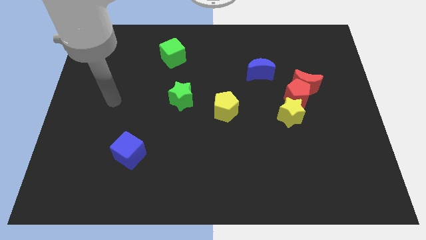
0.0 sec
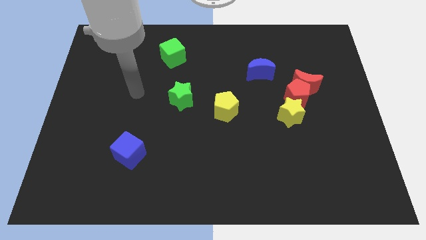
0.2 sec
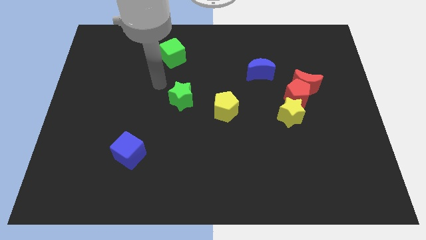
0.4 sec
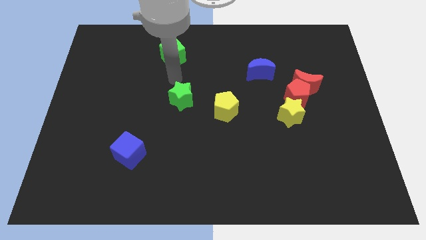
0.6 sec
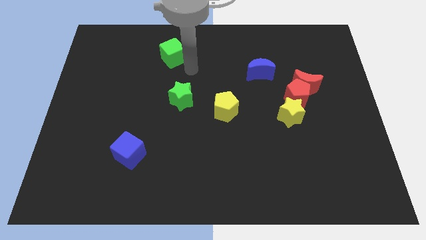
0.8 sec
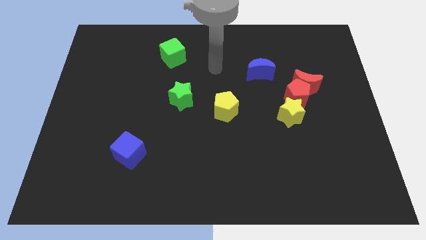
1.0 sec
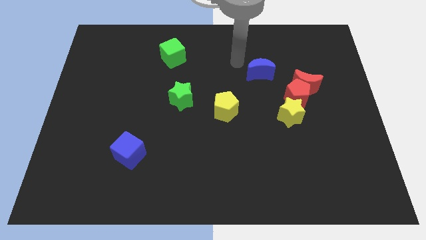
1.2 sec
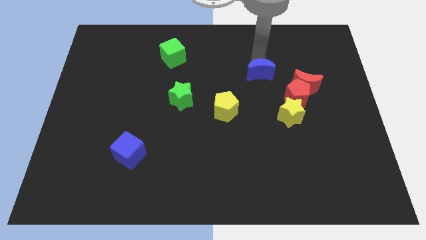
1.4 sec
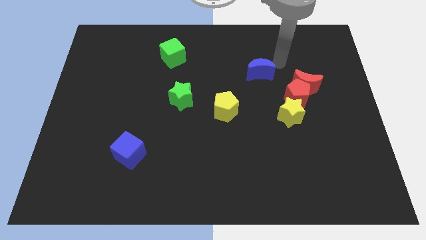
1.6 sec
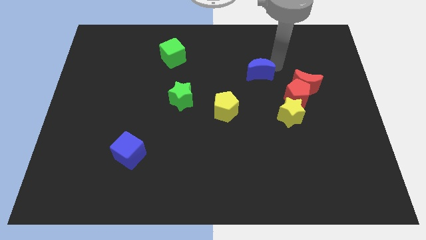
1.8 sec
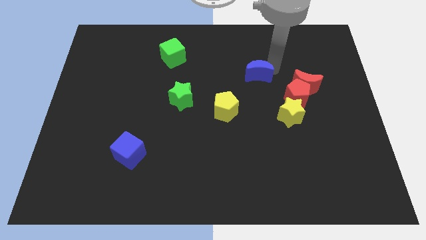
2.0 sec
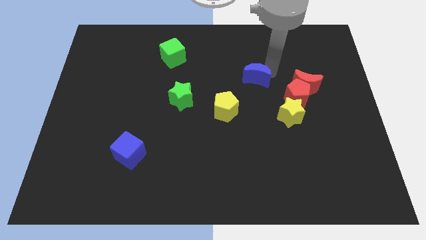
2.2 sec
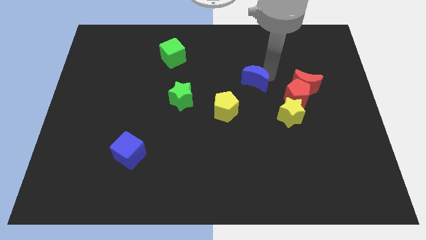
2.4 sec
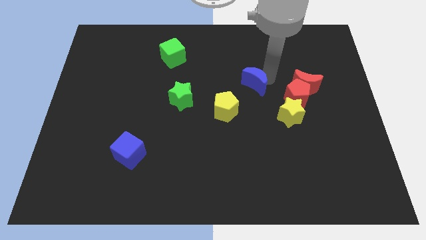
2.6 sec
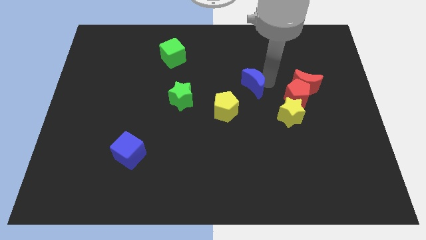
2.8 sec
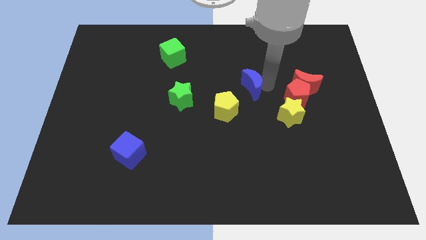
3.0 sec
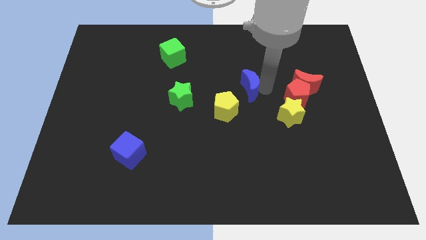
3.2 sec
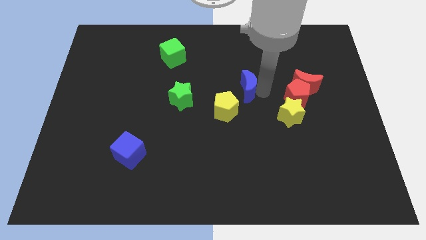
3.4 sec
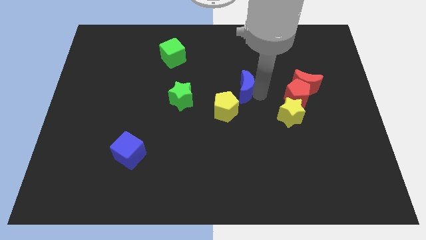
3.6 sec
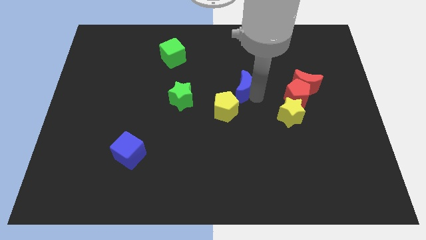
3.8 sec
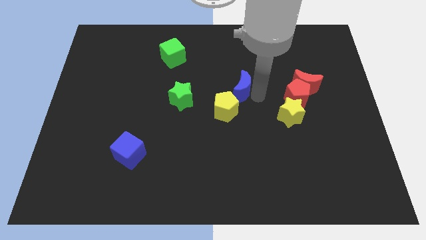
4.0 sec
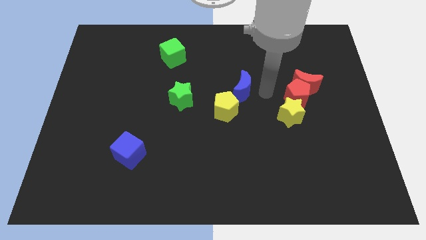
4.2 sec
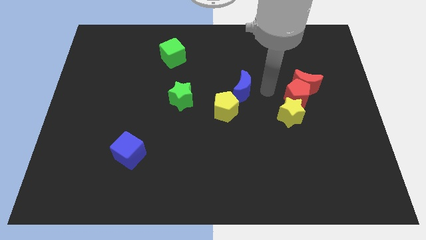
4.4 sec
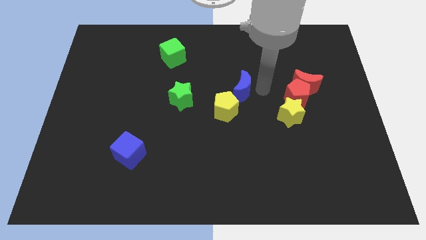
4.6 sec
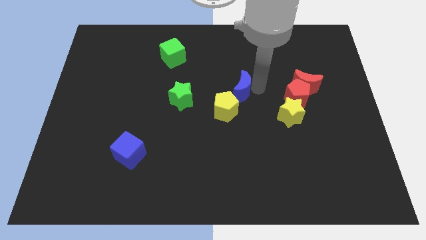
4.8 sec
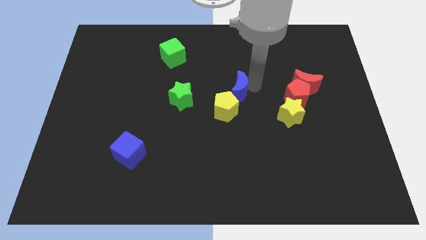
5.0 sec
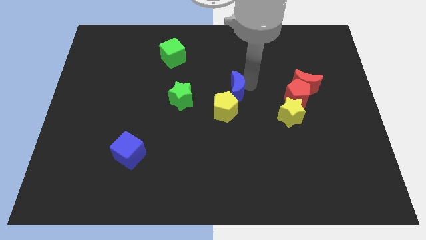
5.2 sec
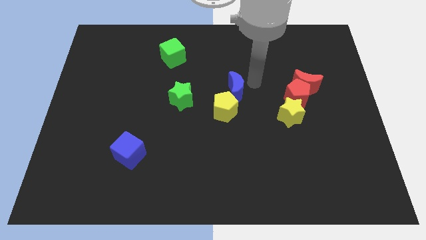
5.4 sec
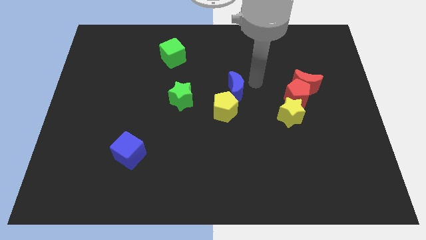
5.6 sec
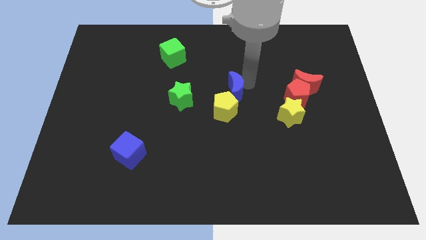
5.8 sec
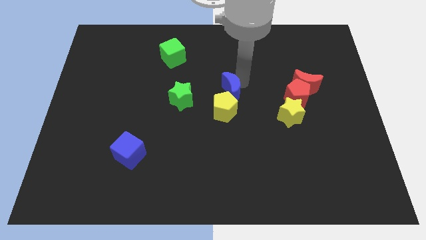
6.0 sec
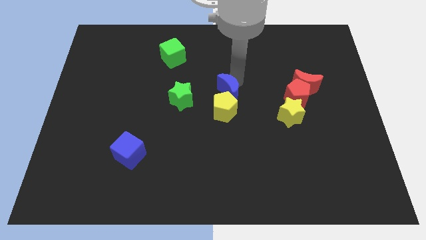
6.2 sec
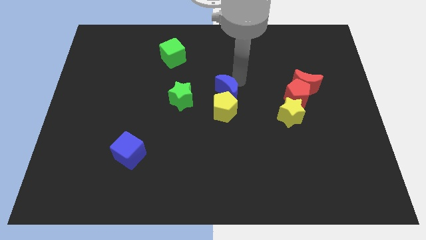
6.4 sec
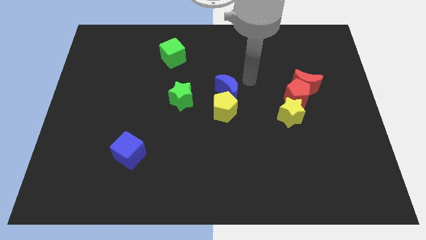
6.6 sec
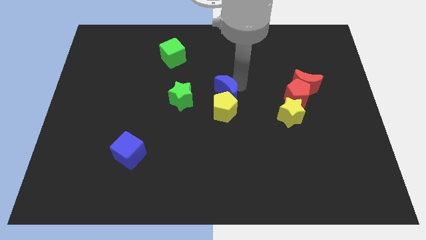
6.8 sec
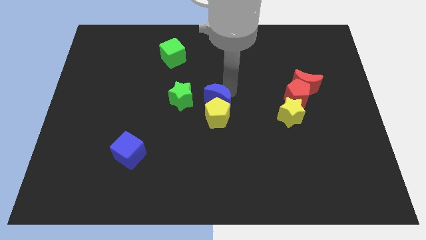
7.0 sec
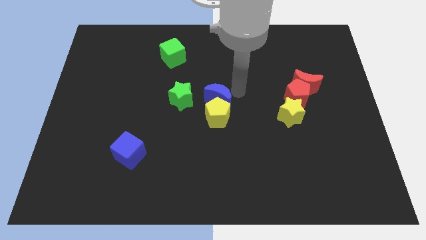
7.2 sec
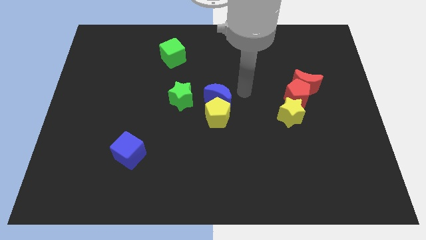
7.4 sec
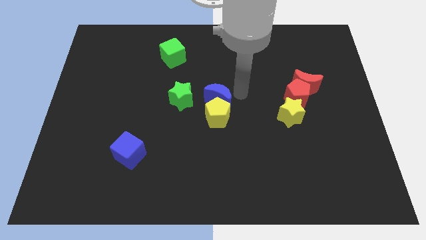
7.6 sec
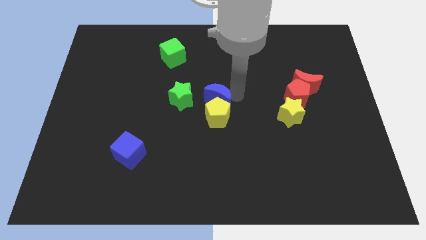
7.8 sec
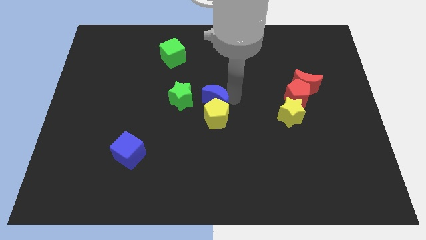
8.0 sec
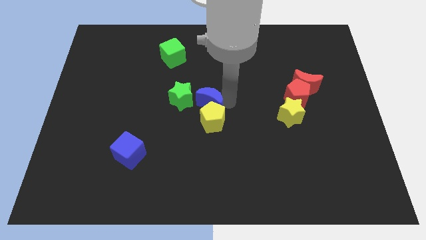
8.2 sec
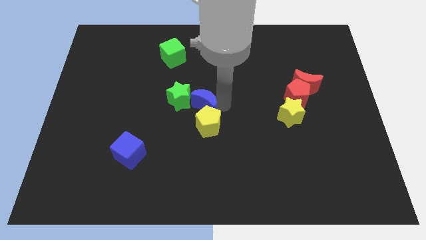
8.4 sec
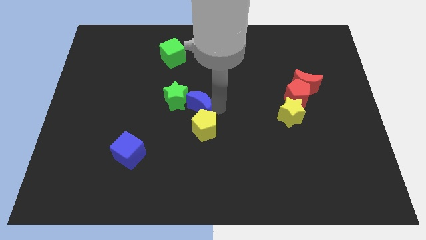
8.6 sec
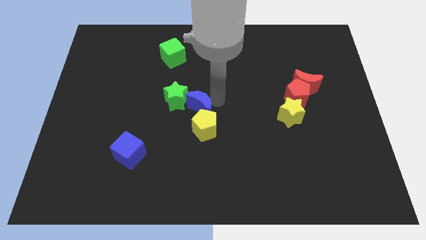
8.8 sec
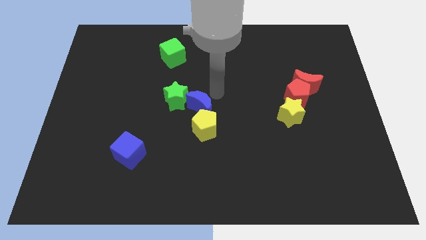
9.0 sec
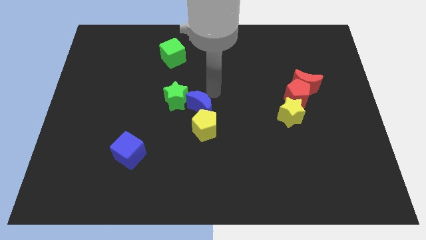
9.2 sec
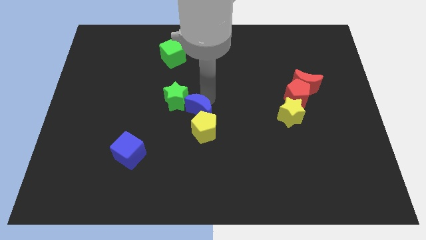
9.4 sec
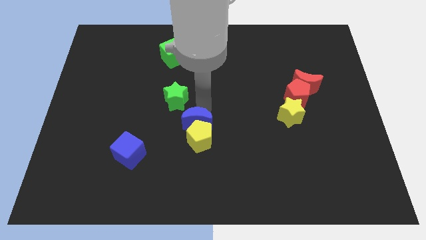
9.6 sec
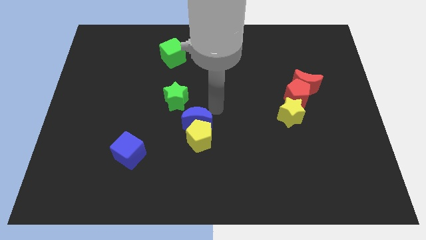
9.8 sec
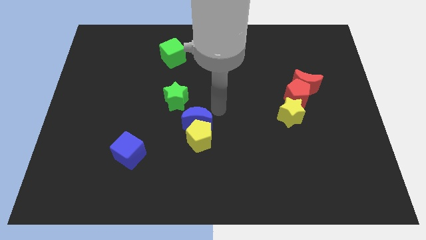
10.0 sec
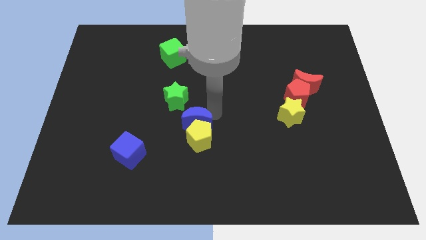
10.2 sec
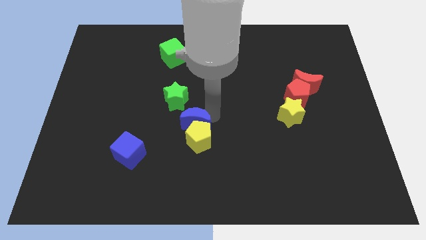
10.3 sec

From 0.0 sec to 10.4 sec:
slide the blue moon below the green star

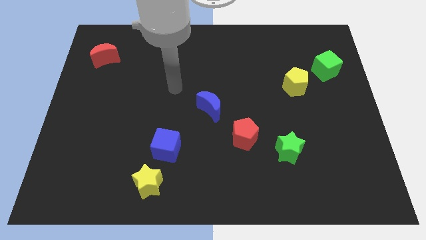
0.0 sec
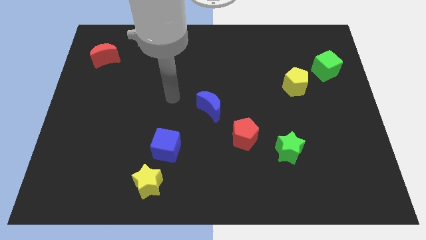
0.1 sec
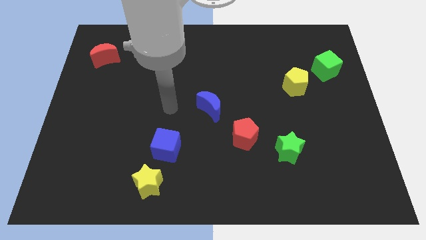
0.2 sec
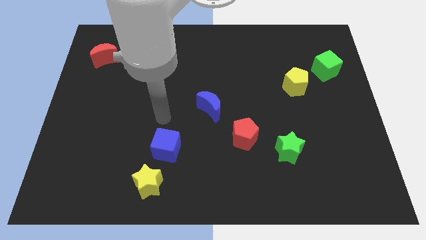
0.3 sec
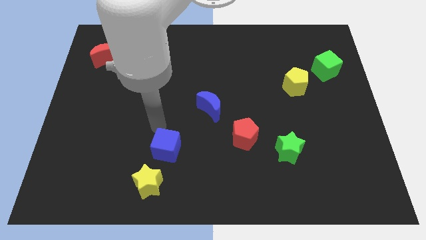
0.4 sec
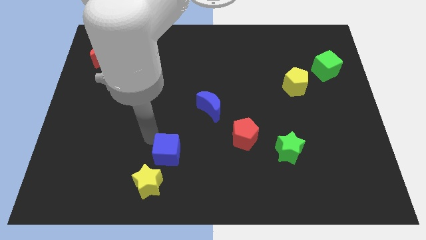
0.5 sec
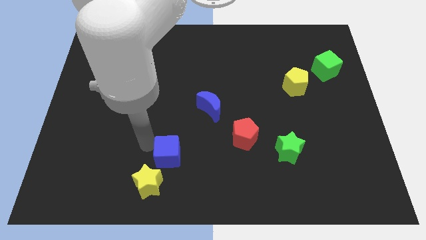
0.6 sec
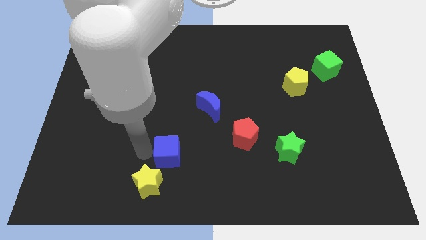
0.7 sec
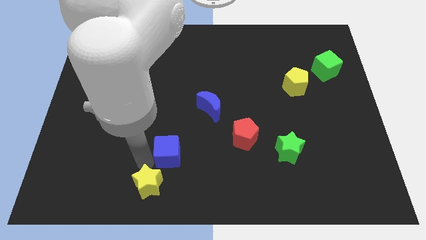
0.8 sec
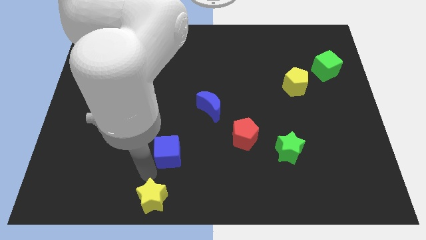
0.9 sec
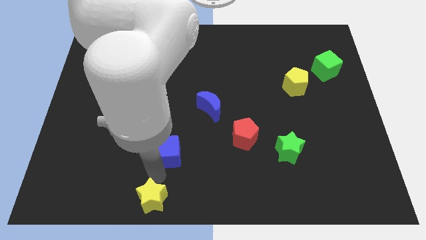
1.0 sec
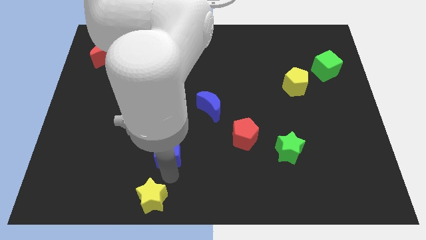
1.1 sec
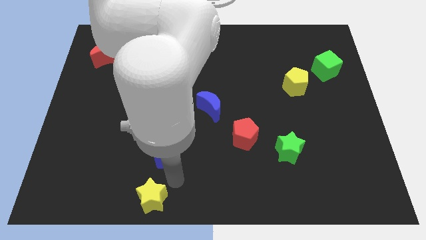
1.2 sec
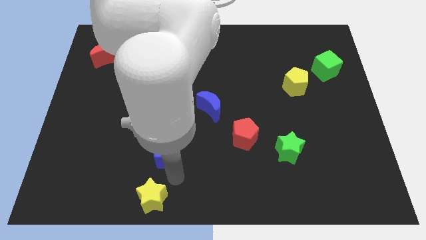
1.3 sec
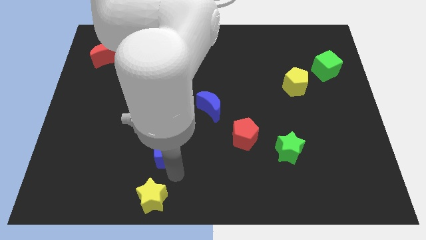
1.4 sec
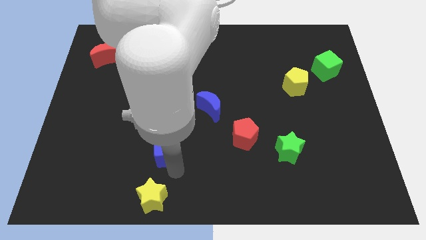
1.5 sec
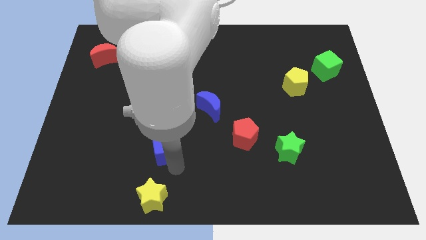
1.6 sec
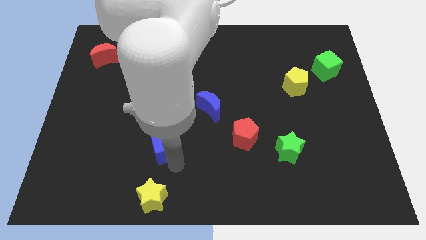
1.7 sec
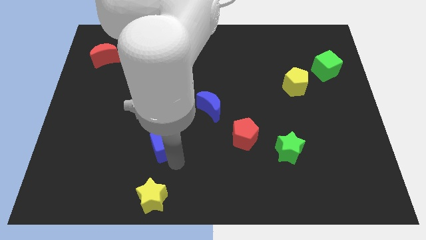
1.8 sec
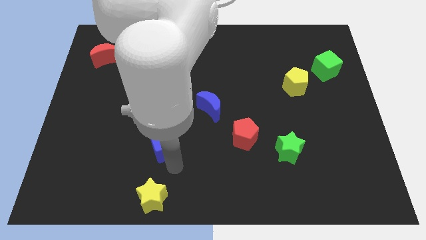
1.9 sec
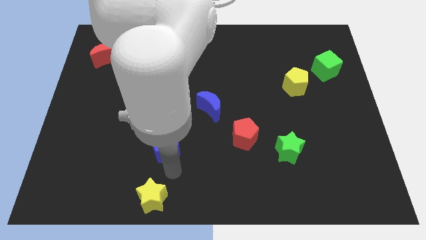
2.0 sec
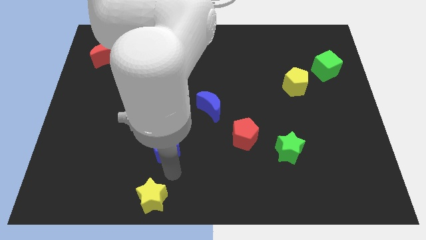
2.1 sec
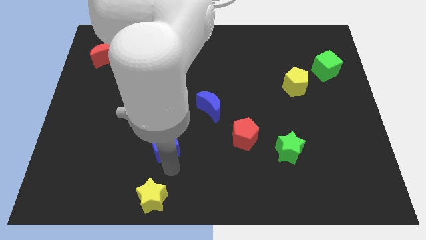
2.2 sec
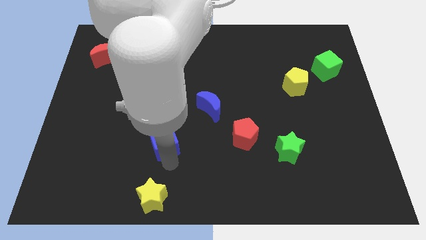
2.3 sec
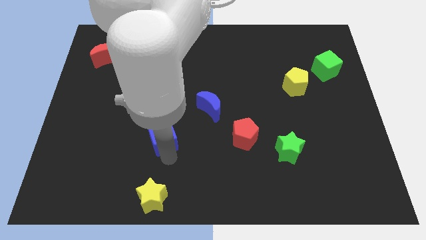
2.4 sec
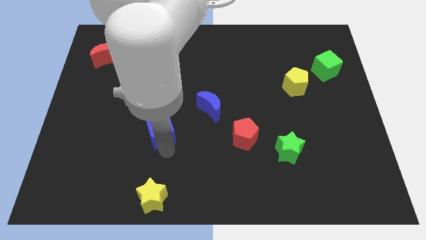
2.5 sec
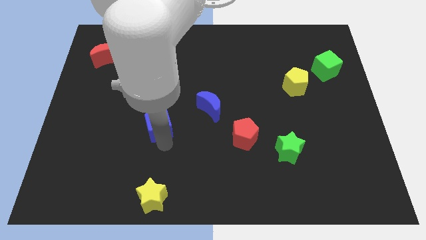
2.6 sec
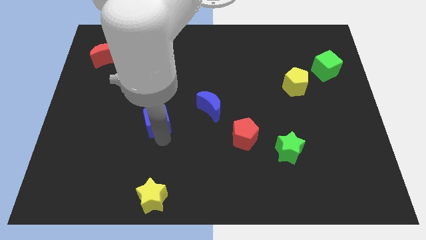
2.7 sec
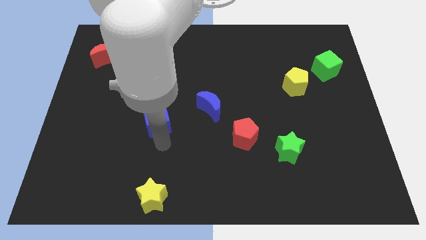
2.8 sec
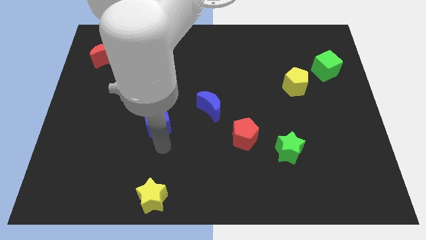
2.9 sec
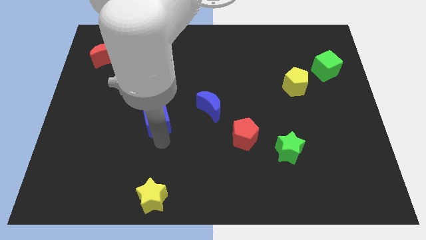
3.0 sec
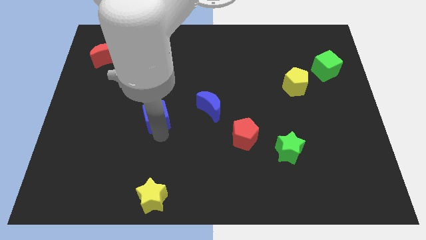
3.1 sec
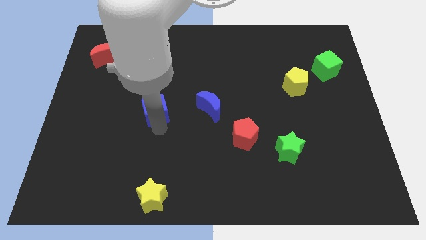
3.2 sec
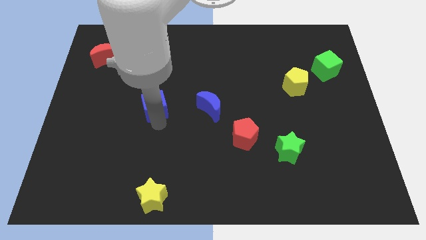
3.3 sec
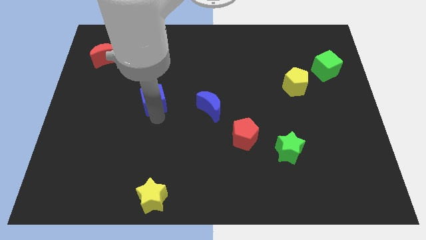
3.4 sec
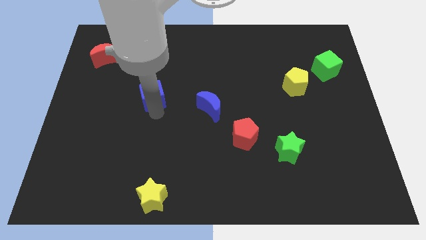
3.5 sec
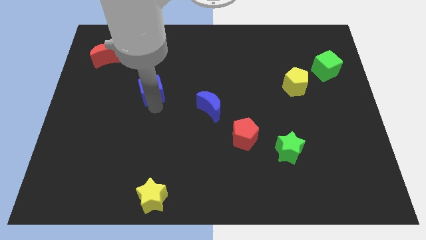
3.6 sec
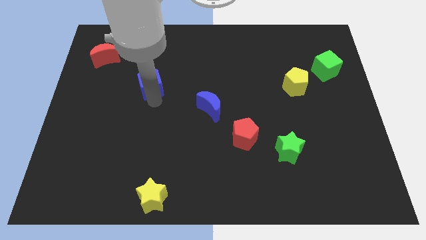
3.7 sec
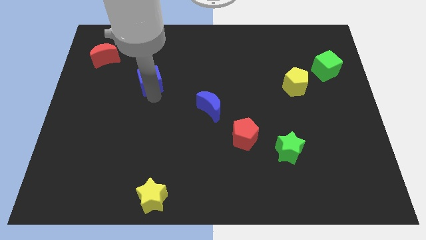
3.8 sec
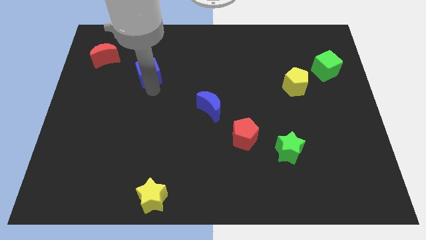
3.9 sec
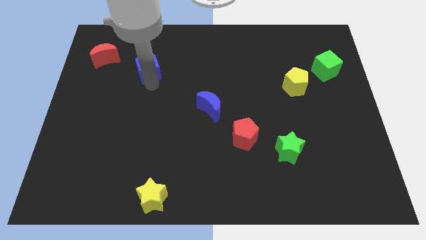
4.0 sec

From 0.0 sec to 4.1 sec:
slide the blue cube to the right of the red moon
